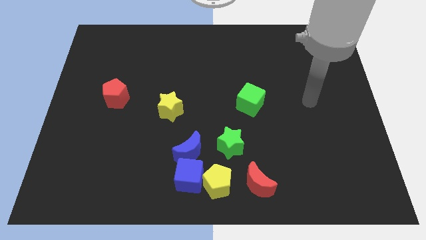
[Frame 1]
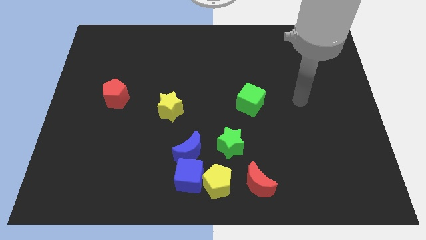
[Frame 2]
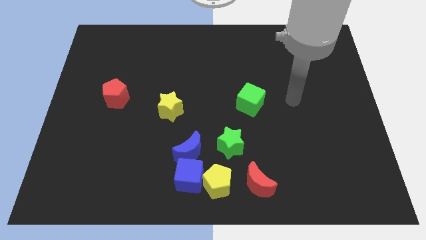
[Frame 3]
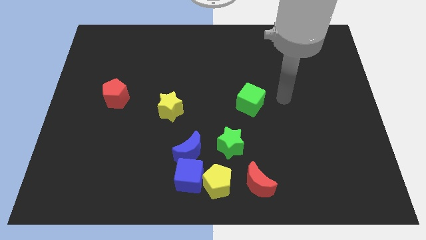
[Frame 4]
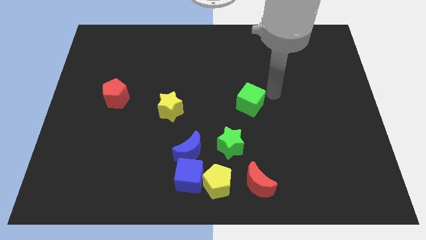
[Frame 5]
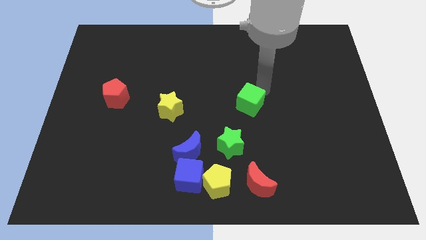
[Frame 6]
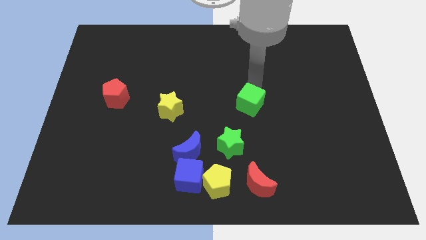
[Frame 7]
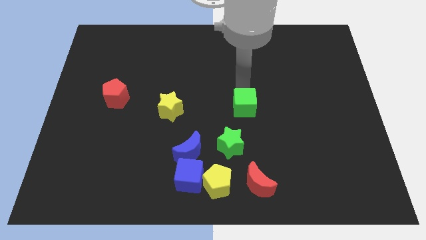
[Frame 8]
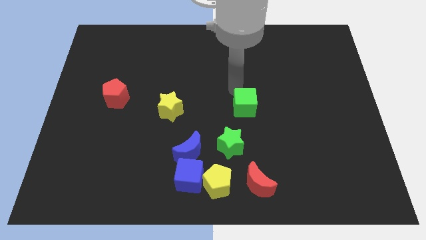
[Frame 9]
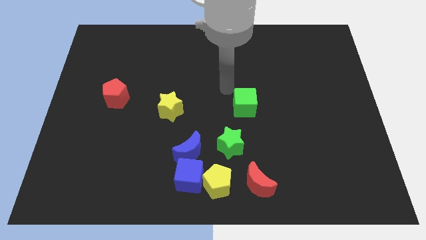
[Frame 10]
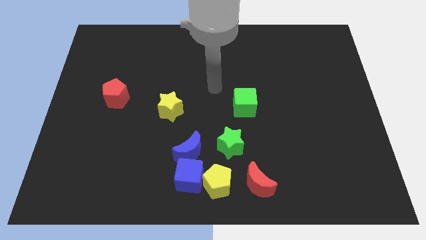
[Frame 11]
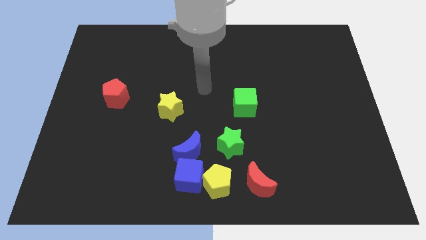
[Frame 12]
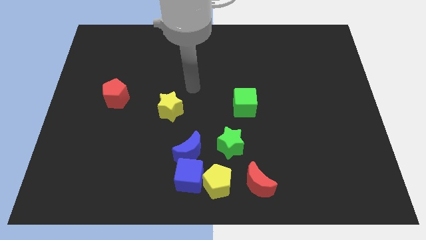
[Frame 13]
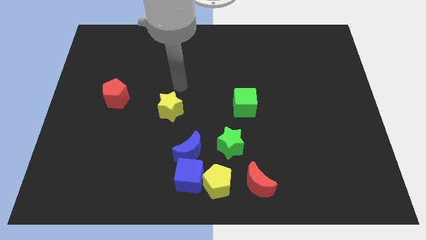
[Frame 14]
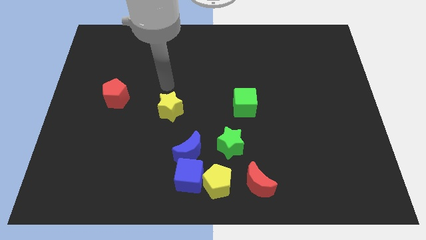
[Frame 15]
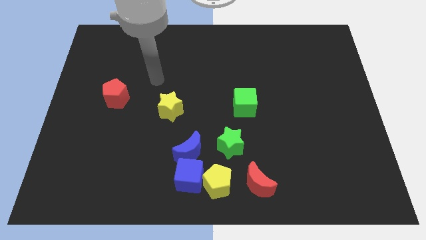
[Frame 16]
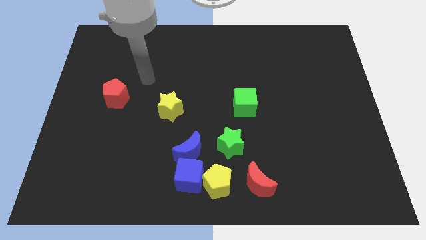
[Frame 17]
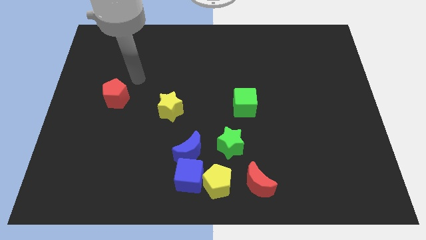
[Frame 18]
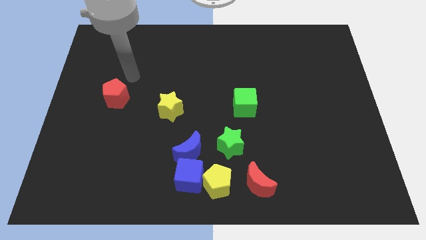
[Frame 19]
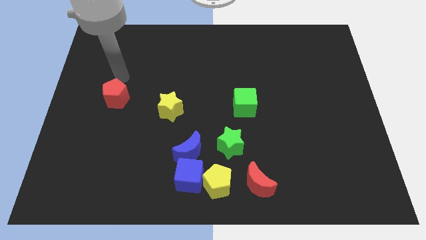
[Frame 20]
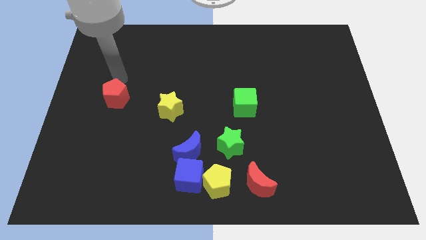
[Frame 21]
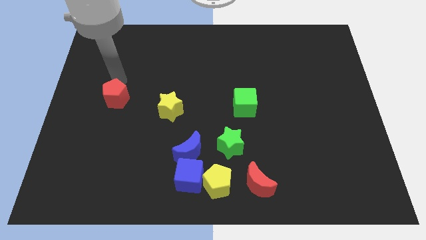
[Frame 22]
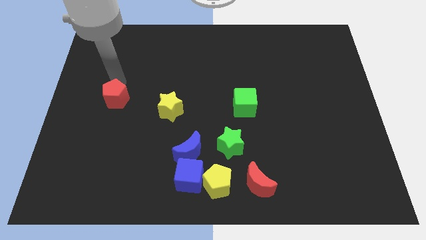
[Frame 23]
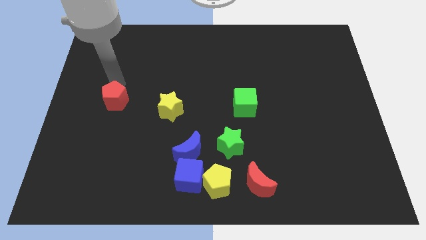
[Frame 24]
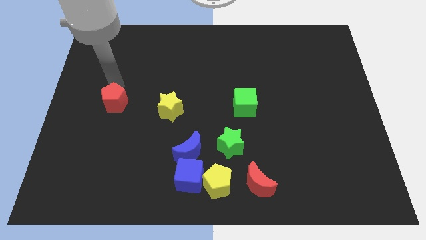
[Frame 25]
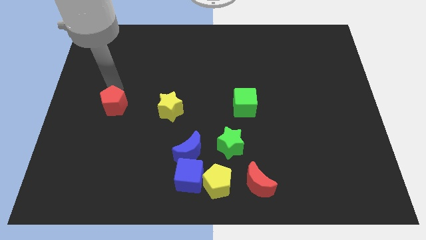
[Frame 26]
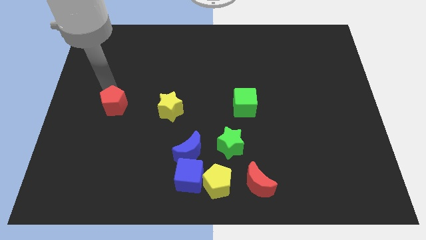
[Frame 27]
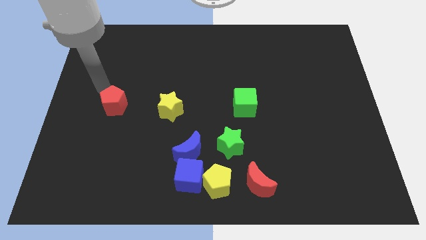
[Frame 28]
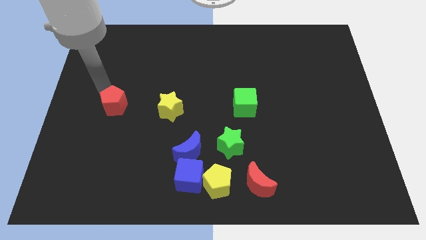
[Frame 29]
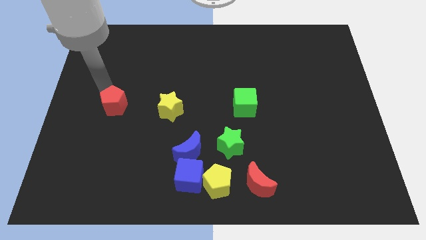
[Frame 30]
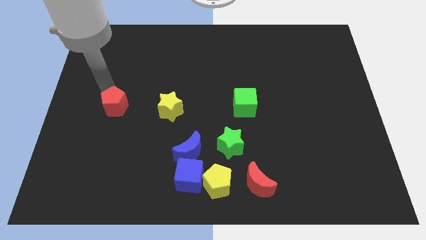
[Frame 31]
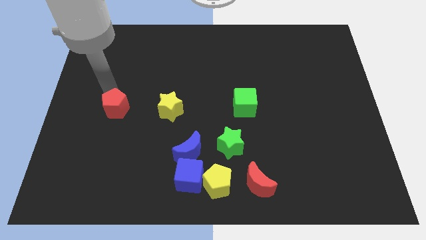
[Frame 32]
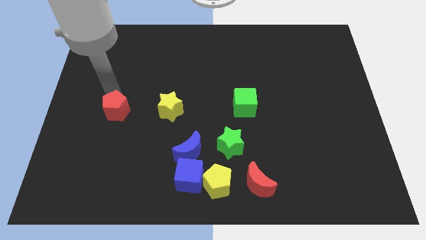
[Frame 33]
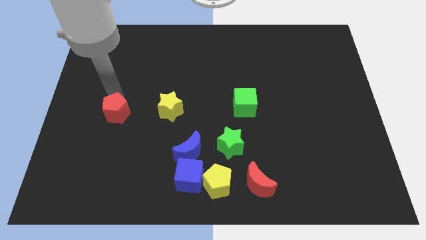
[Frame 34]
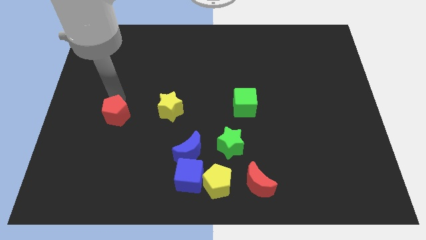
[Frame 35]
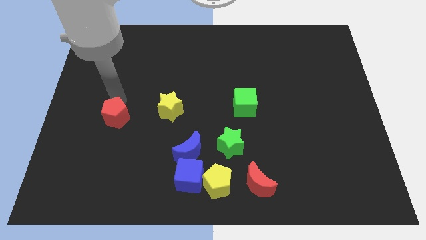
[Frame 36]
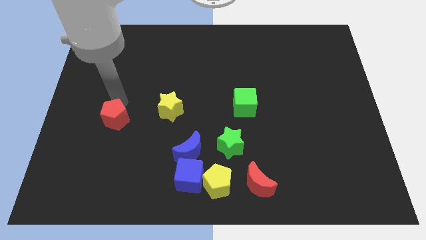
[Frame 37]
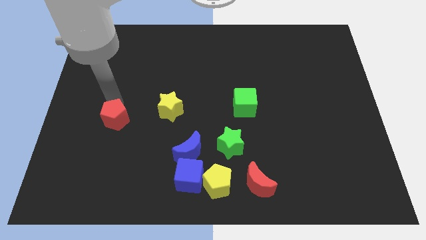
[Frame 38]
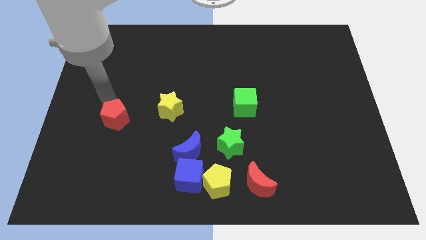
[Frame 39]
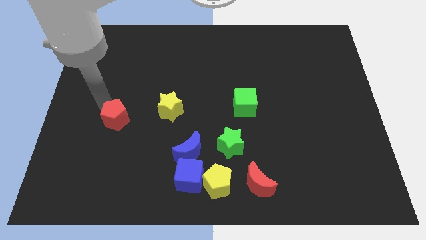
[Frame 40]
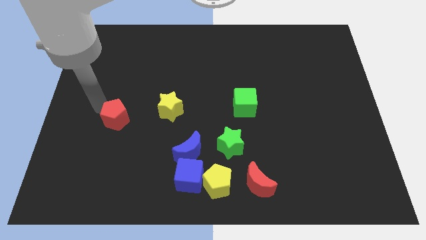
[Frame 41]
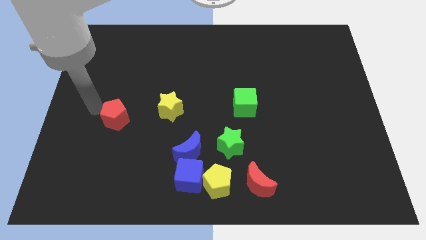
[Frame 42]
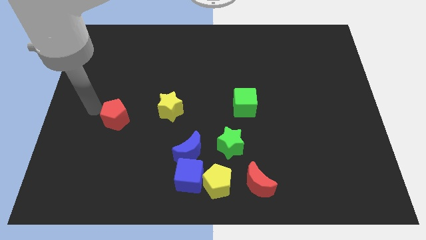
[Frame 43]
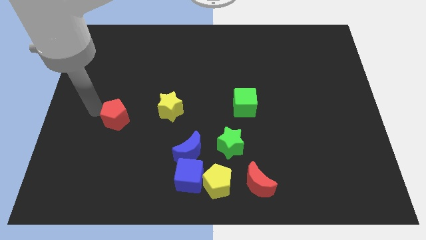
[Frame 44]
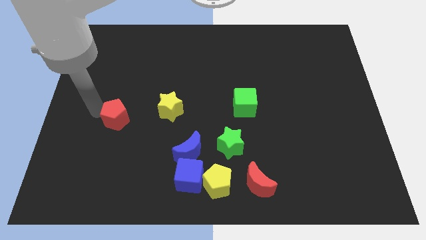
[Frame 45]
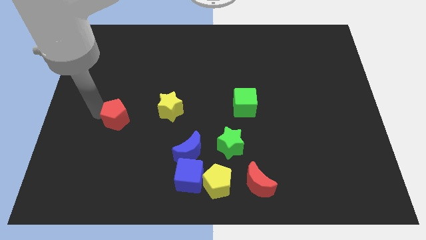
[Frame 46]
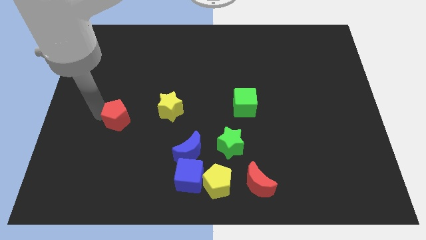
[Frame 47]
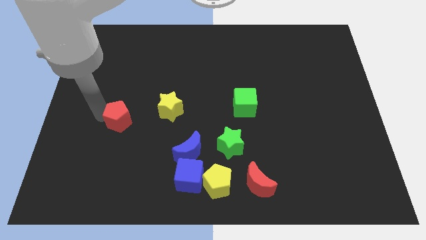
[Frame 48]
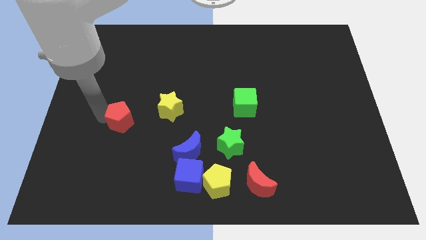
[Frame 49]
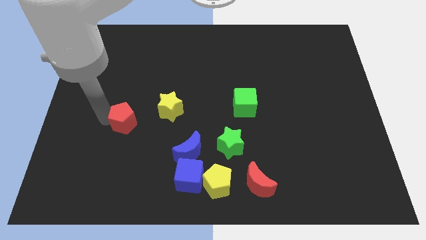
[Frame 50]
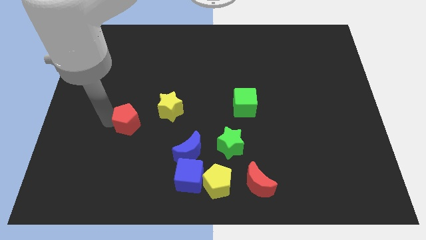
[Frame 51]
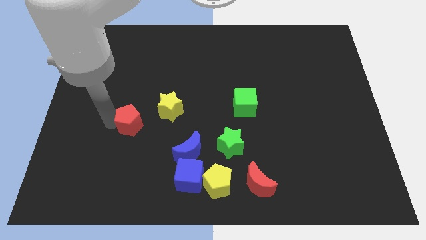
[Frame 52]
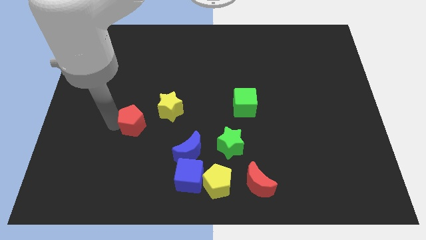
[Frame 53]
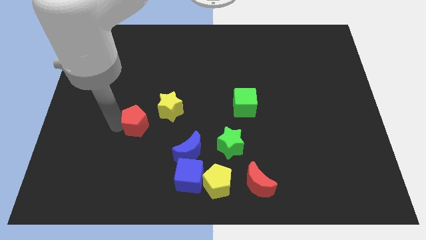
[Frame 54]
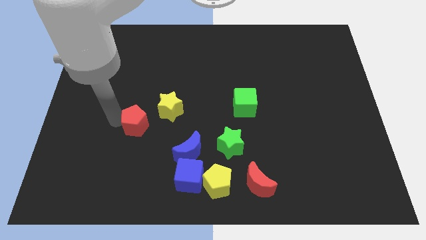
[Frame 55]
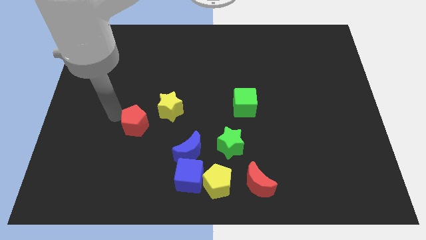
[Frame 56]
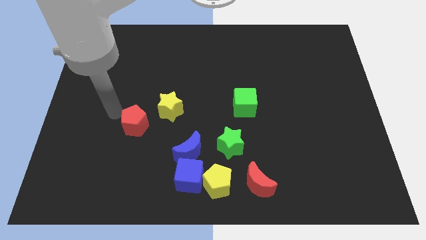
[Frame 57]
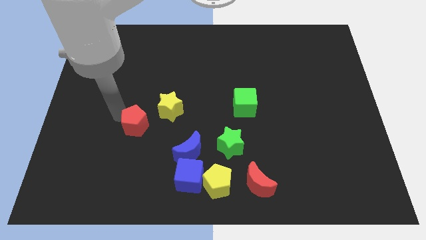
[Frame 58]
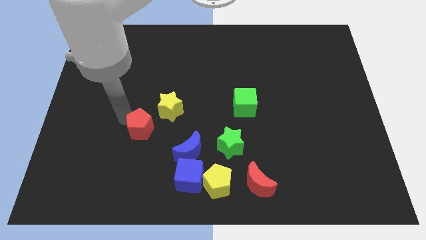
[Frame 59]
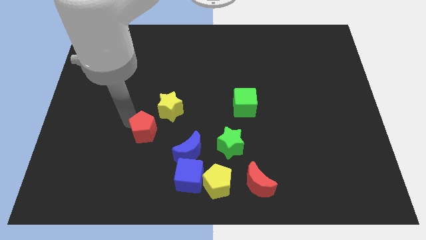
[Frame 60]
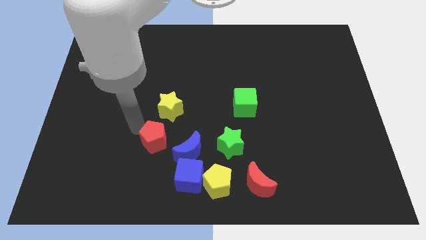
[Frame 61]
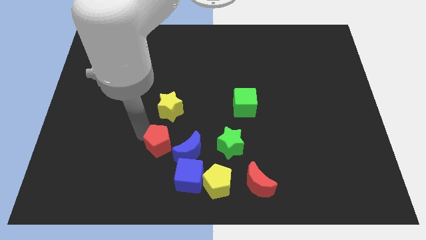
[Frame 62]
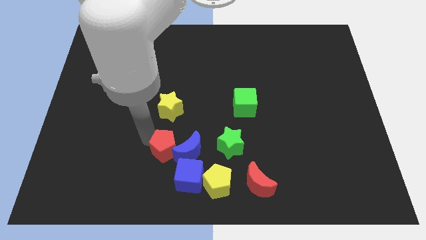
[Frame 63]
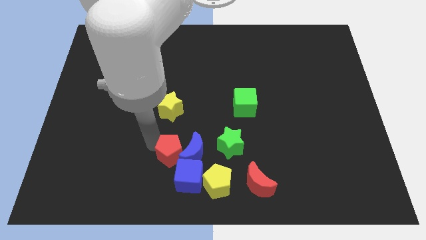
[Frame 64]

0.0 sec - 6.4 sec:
slide the red pentagon above the blue cube
